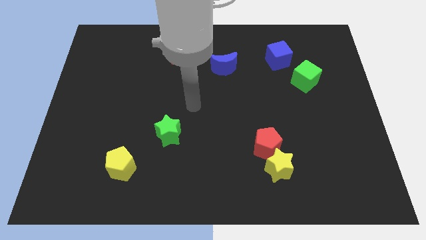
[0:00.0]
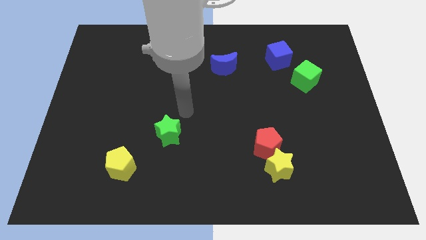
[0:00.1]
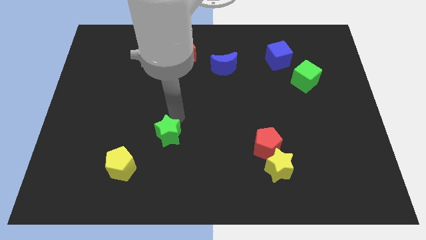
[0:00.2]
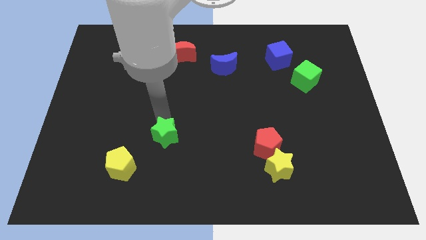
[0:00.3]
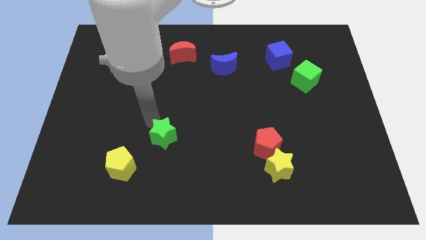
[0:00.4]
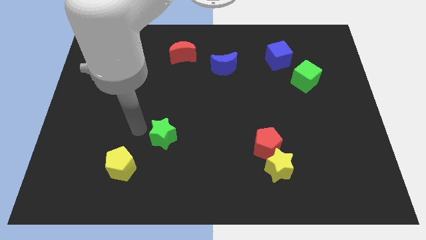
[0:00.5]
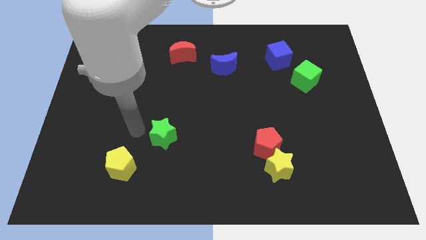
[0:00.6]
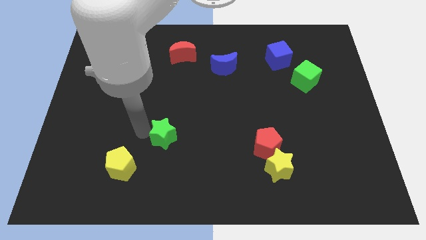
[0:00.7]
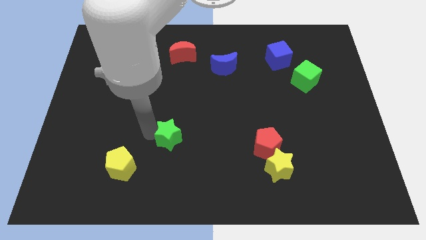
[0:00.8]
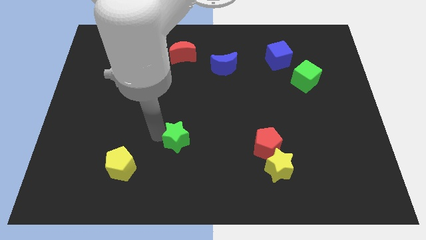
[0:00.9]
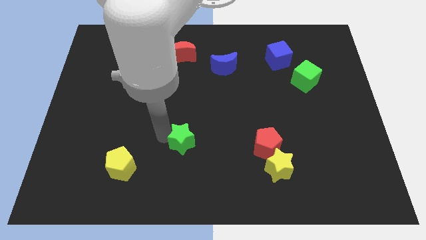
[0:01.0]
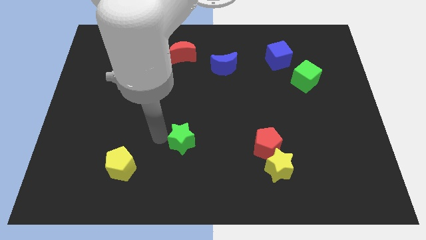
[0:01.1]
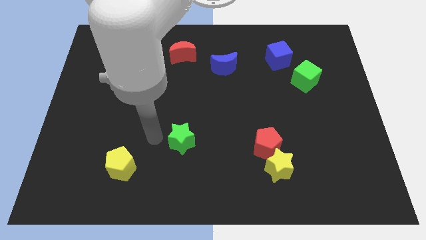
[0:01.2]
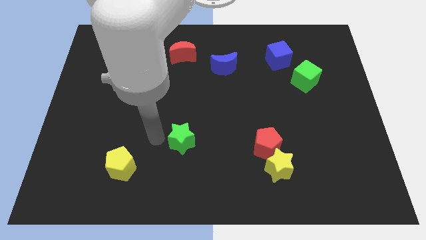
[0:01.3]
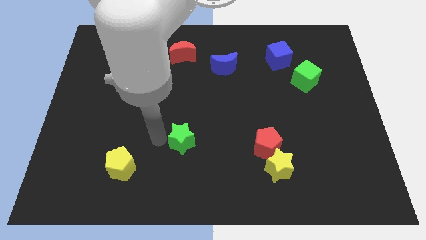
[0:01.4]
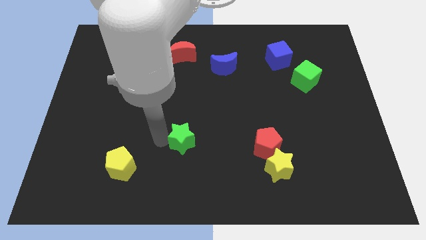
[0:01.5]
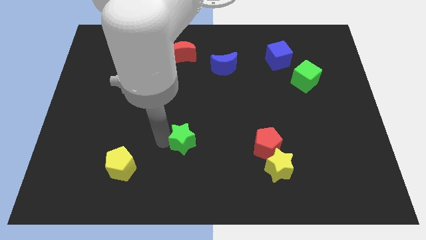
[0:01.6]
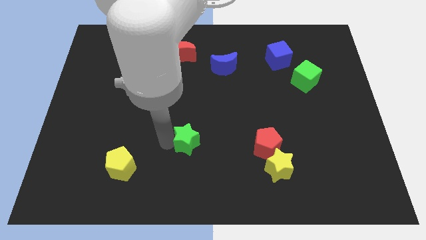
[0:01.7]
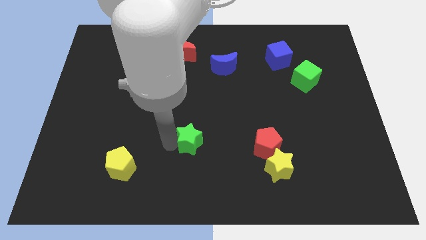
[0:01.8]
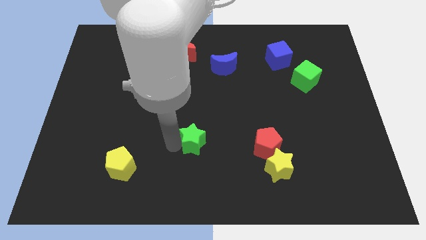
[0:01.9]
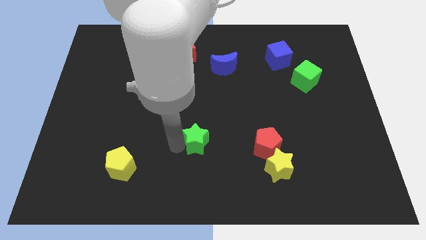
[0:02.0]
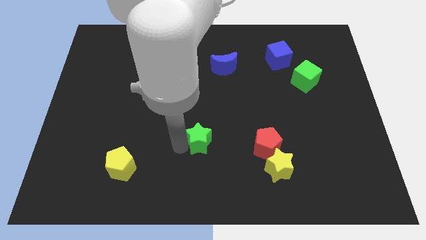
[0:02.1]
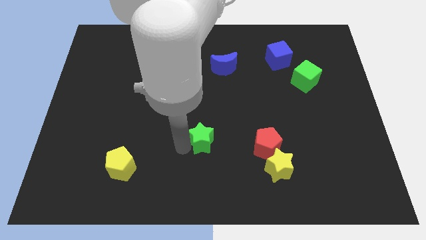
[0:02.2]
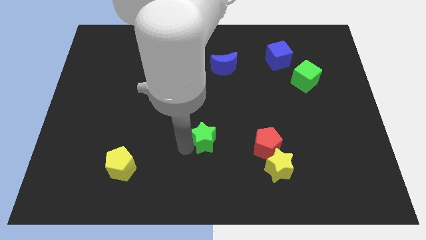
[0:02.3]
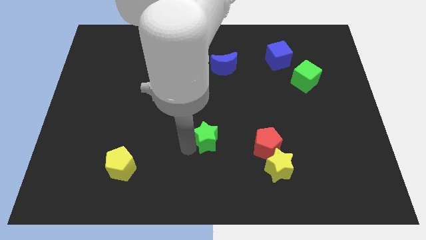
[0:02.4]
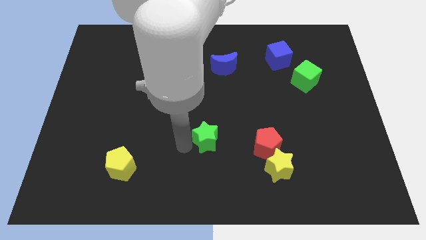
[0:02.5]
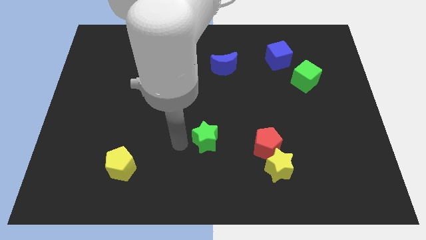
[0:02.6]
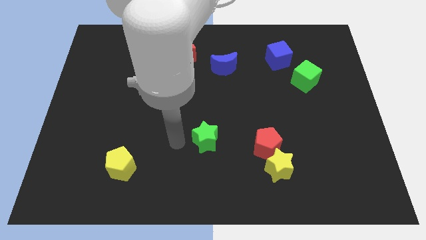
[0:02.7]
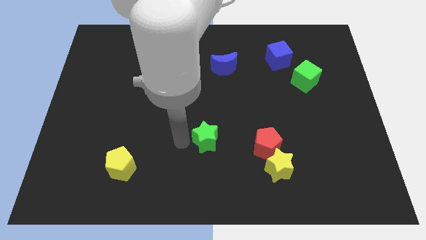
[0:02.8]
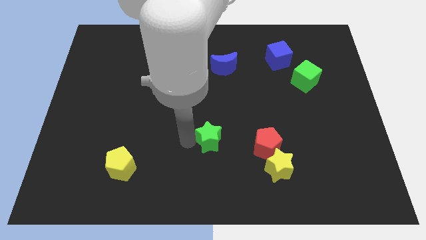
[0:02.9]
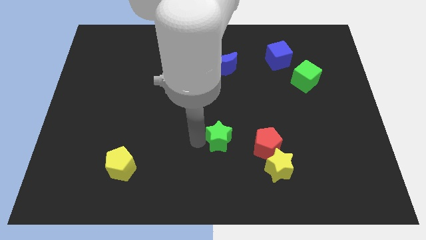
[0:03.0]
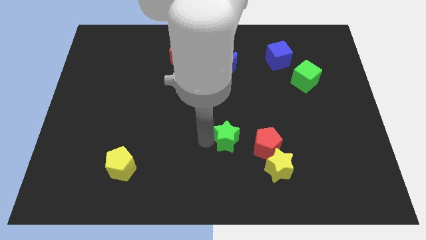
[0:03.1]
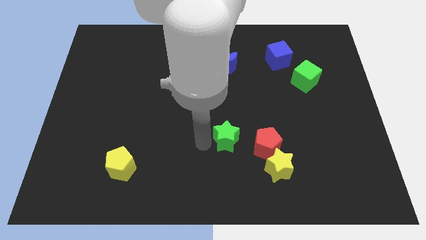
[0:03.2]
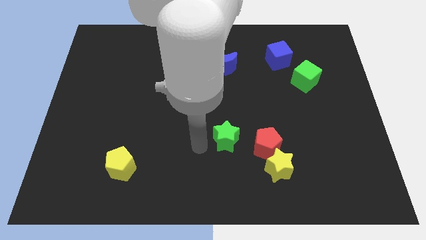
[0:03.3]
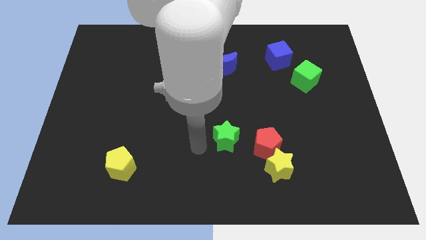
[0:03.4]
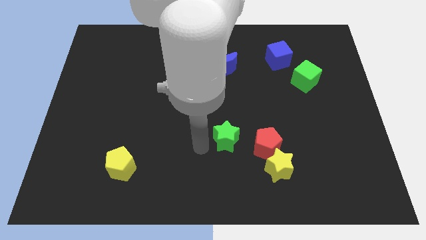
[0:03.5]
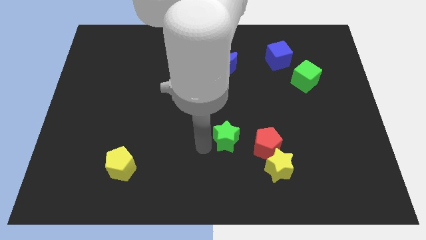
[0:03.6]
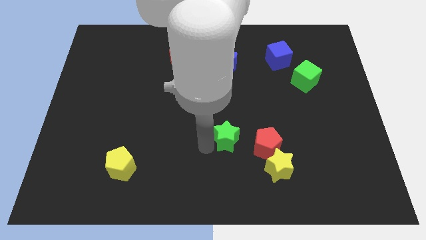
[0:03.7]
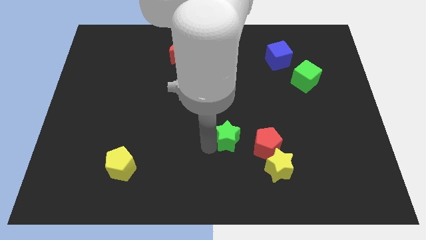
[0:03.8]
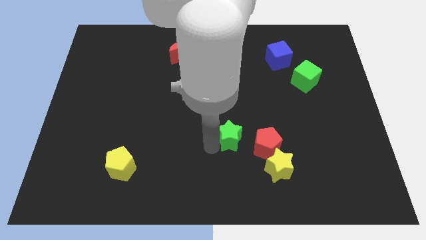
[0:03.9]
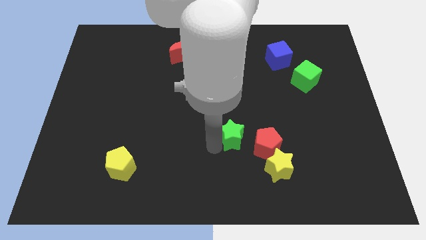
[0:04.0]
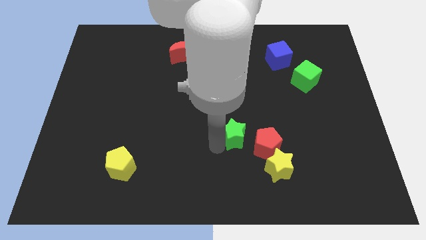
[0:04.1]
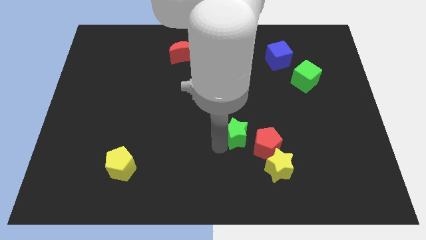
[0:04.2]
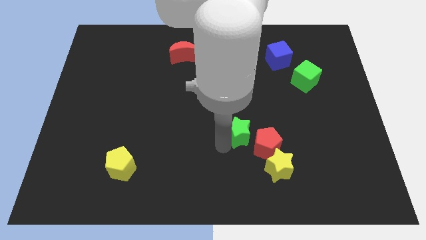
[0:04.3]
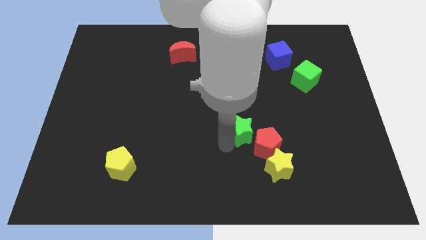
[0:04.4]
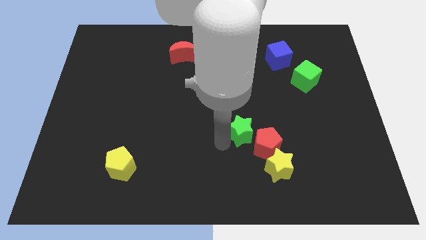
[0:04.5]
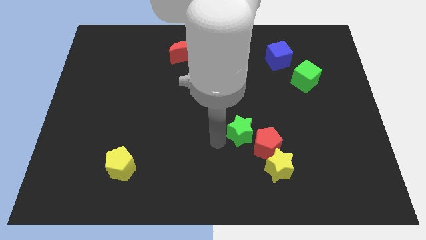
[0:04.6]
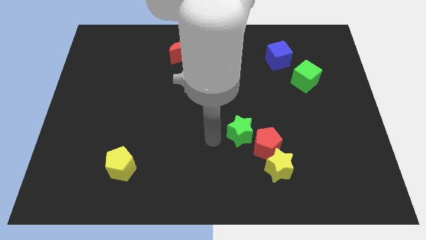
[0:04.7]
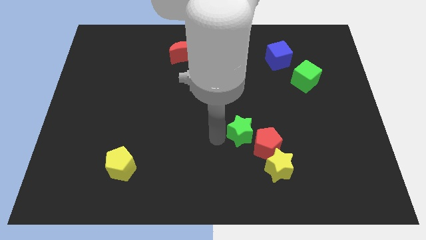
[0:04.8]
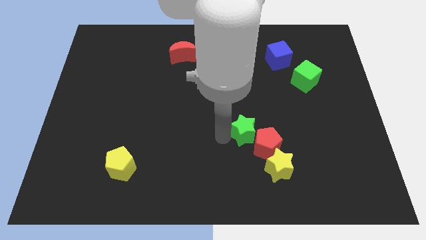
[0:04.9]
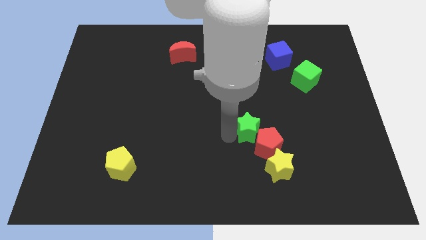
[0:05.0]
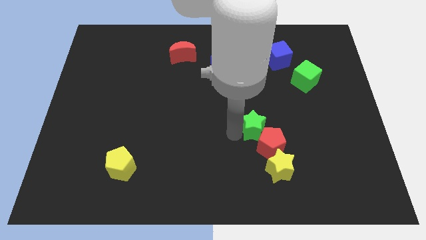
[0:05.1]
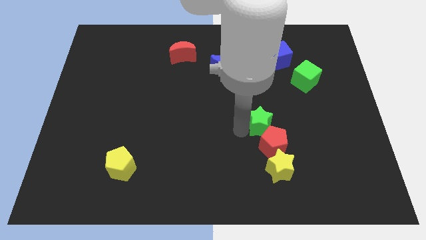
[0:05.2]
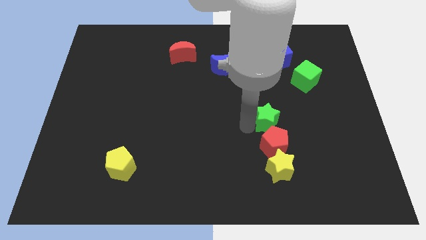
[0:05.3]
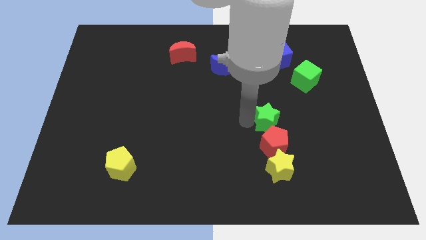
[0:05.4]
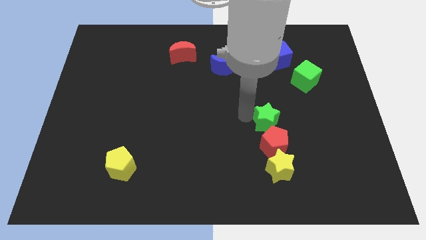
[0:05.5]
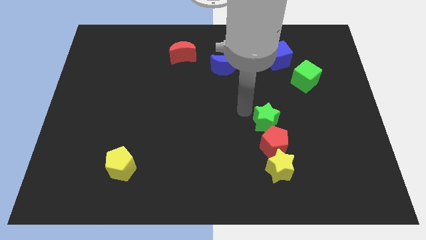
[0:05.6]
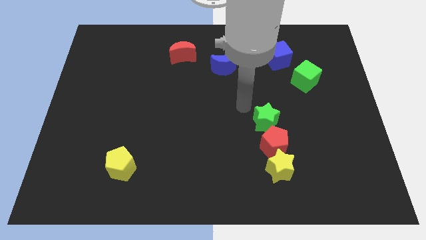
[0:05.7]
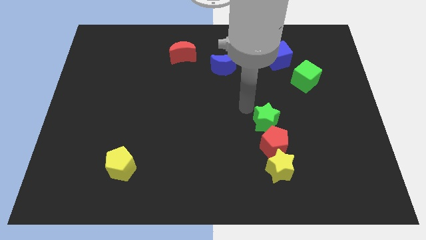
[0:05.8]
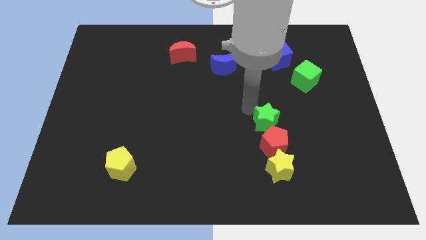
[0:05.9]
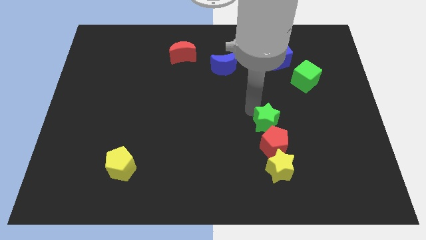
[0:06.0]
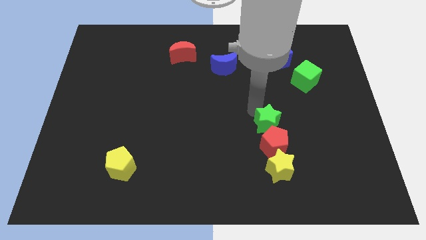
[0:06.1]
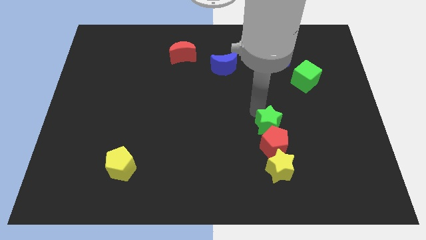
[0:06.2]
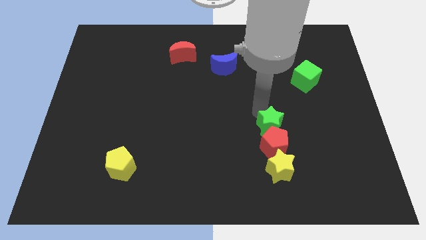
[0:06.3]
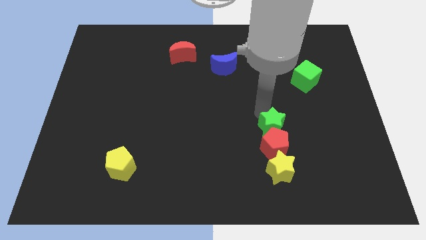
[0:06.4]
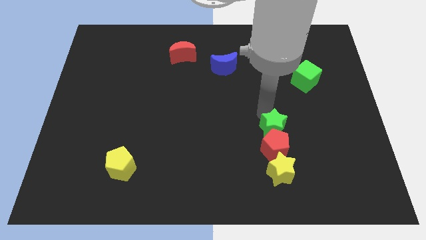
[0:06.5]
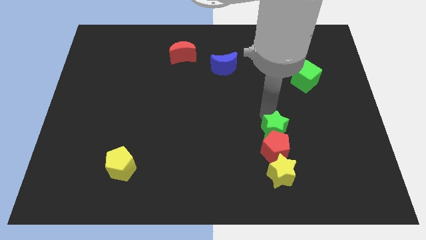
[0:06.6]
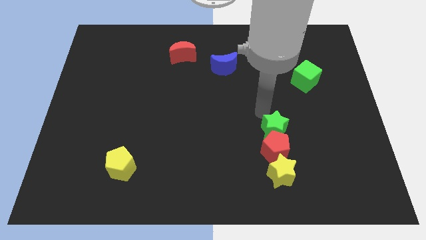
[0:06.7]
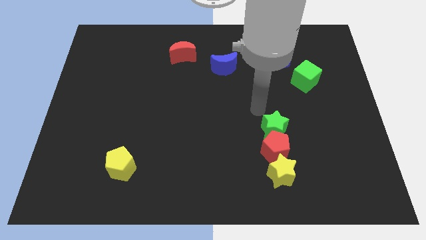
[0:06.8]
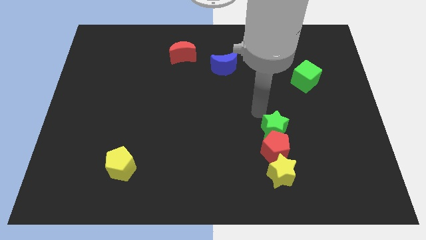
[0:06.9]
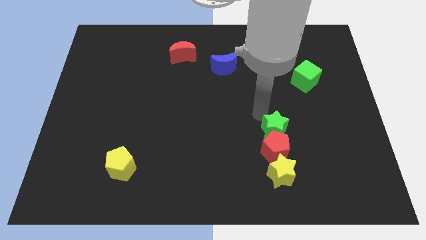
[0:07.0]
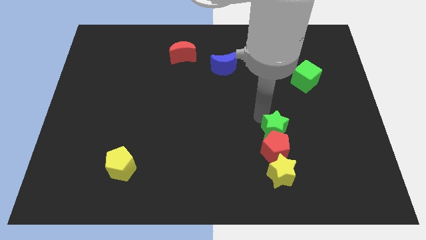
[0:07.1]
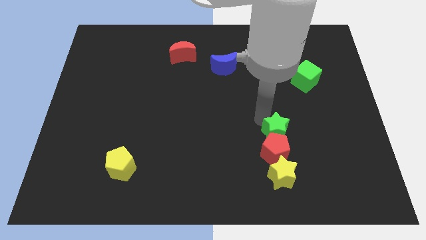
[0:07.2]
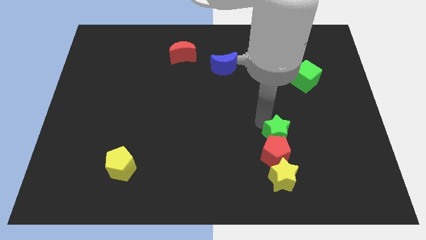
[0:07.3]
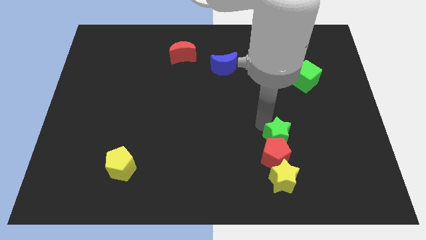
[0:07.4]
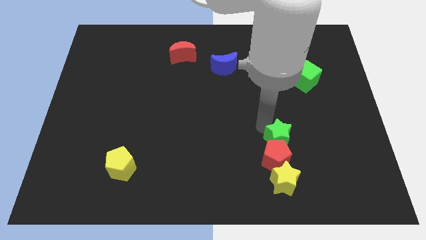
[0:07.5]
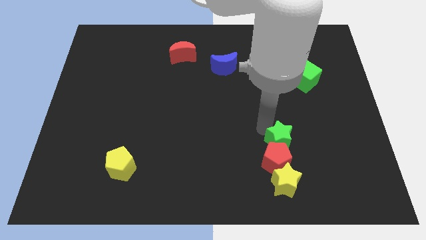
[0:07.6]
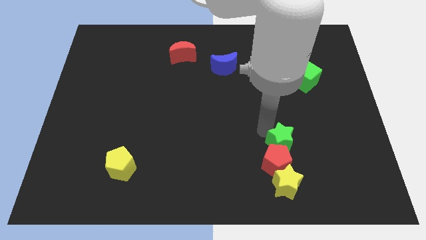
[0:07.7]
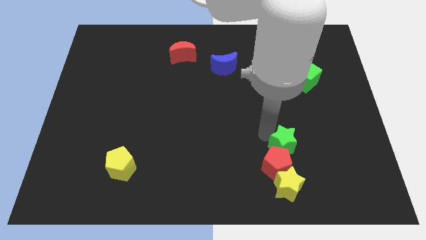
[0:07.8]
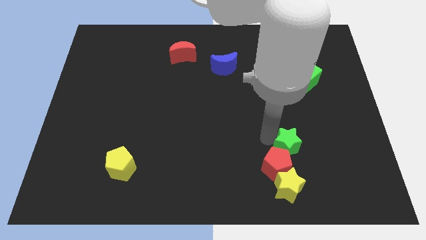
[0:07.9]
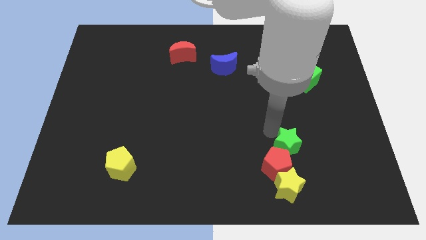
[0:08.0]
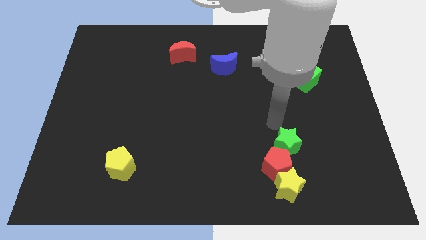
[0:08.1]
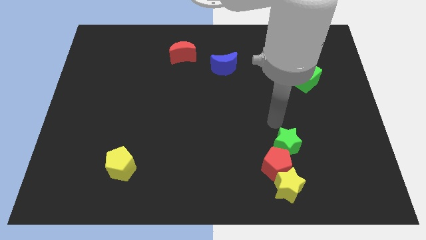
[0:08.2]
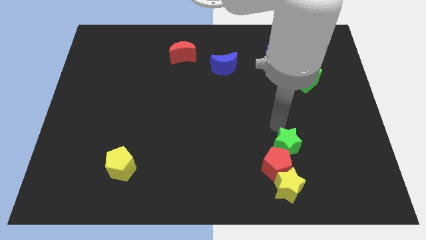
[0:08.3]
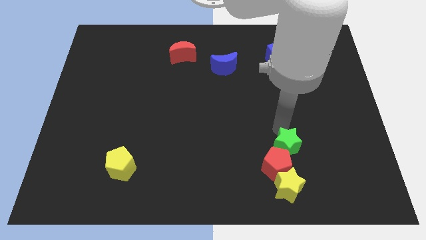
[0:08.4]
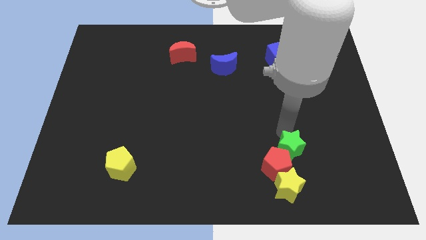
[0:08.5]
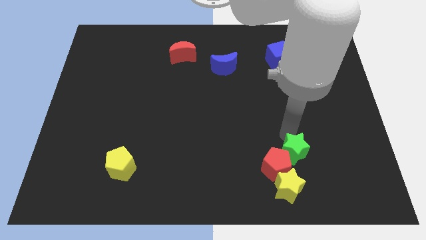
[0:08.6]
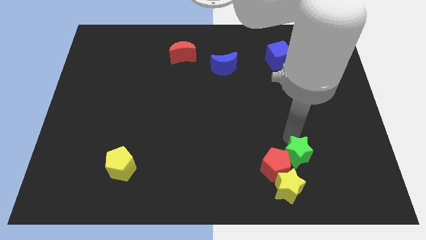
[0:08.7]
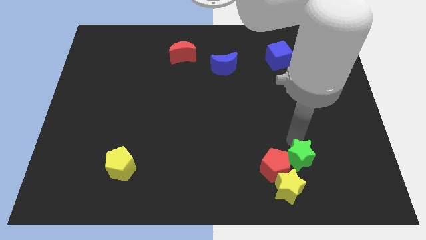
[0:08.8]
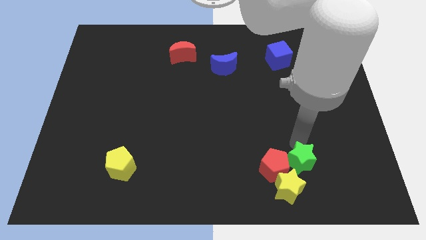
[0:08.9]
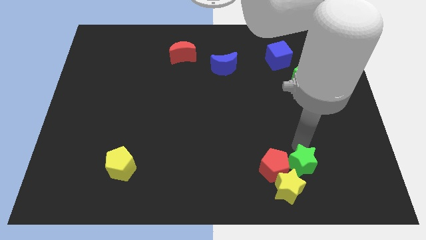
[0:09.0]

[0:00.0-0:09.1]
push the green star diagonally down and to the right of the red pentagon
